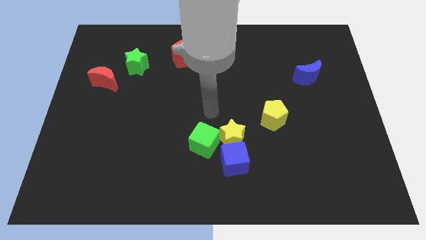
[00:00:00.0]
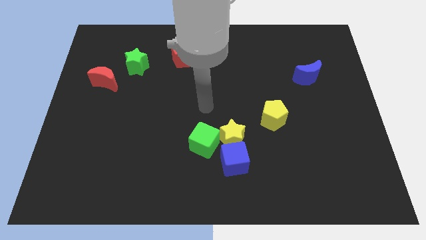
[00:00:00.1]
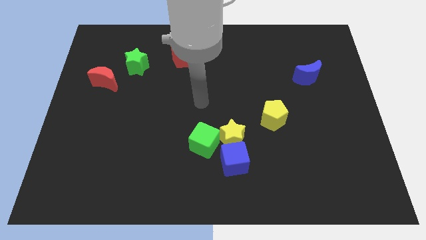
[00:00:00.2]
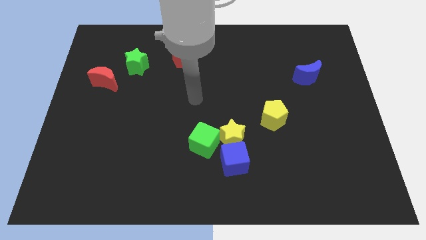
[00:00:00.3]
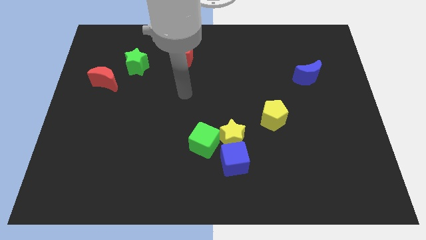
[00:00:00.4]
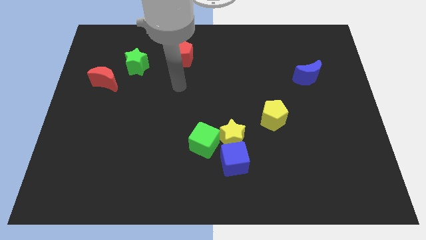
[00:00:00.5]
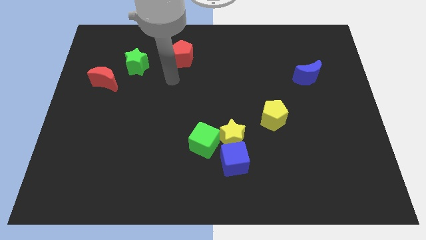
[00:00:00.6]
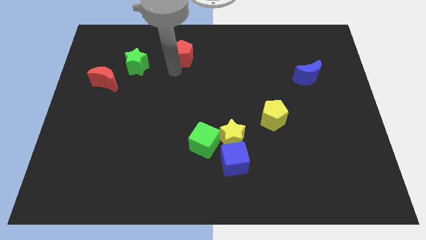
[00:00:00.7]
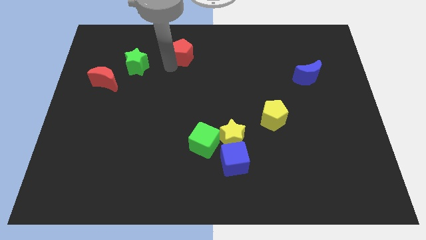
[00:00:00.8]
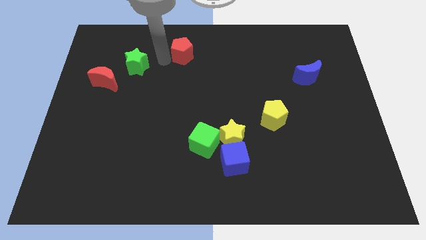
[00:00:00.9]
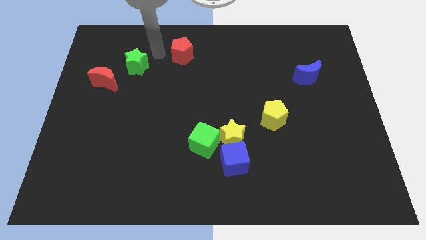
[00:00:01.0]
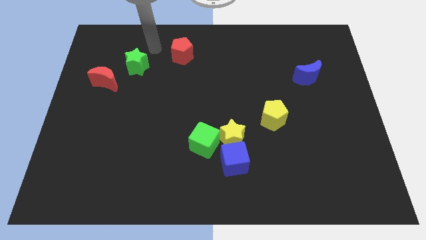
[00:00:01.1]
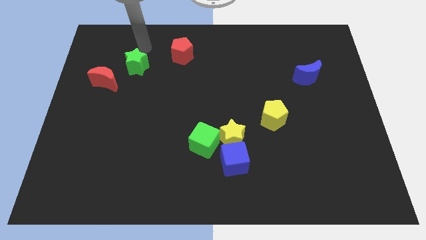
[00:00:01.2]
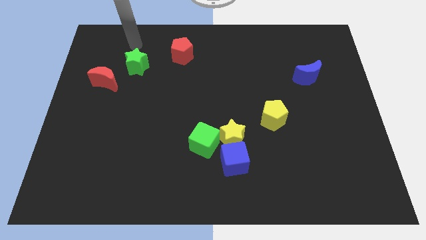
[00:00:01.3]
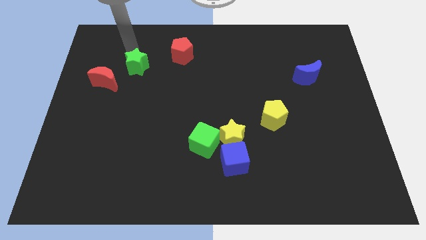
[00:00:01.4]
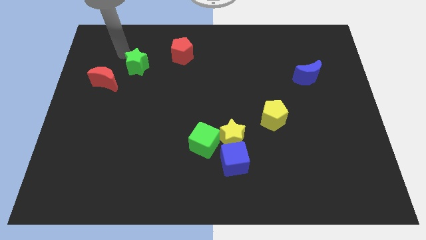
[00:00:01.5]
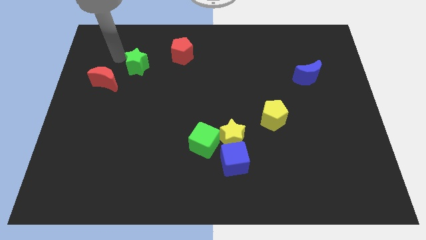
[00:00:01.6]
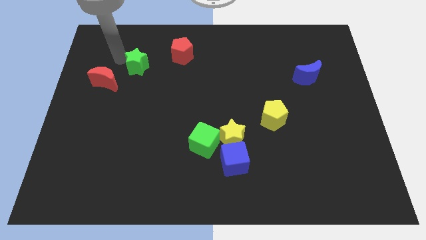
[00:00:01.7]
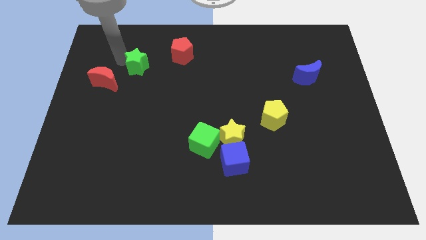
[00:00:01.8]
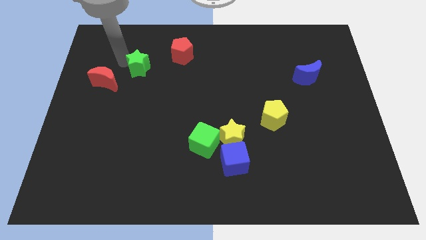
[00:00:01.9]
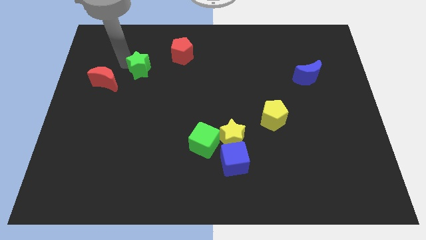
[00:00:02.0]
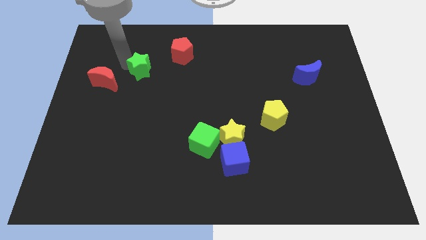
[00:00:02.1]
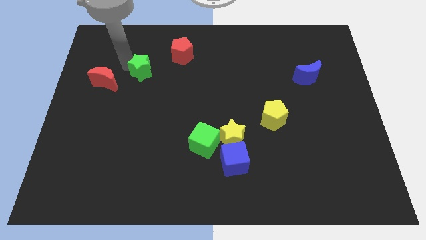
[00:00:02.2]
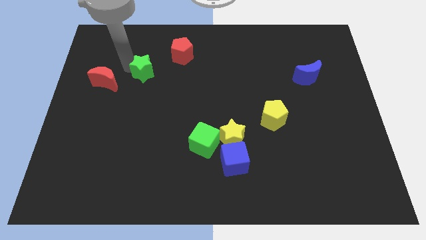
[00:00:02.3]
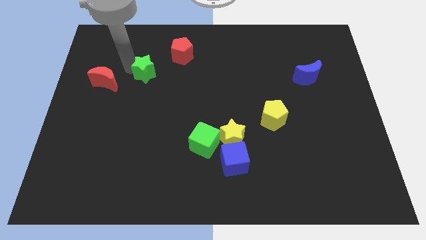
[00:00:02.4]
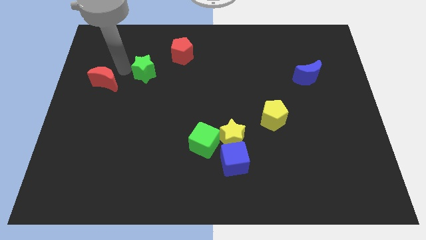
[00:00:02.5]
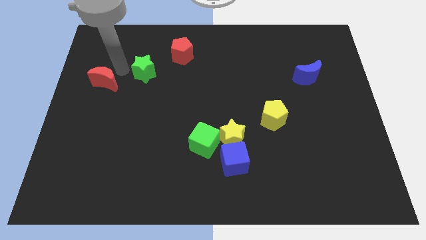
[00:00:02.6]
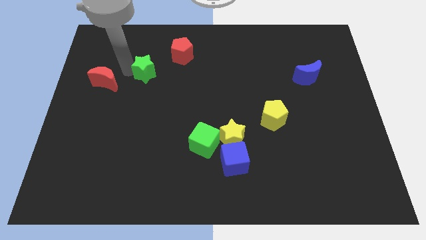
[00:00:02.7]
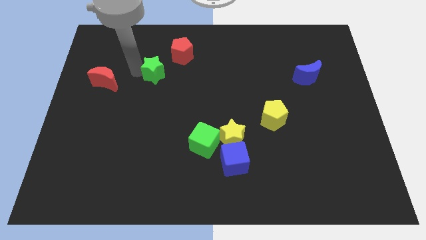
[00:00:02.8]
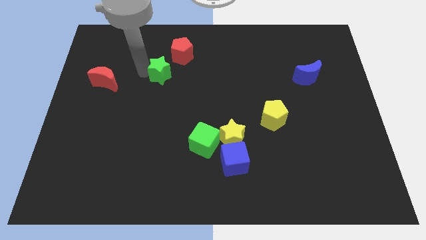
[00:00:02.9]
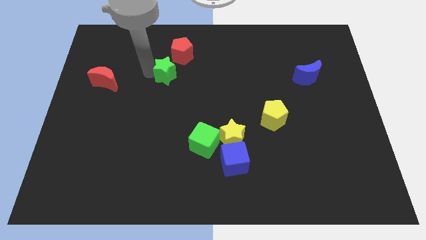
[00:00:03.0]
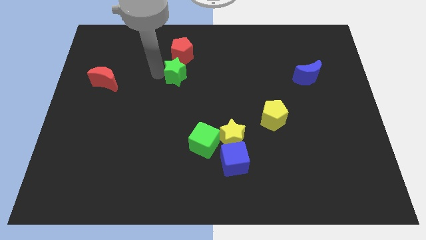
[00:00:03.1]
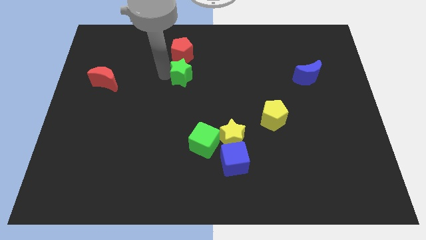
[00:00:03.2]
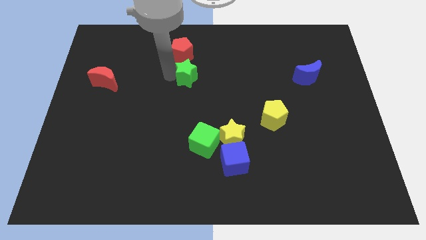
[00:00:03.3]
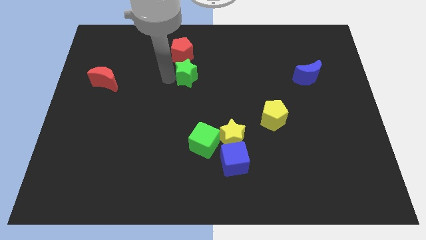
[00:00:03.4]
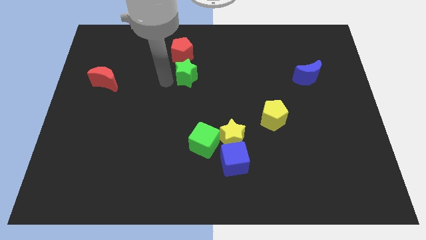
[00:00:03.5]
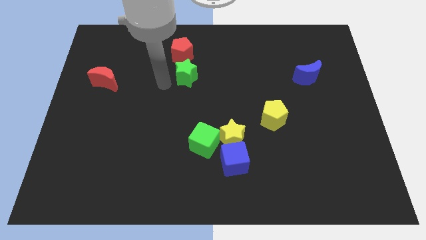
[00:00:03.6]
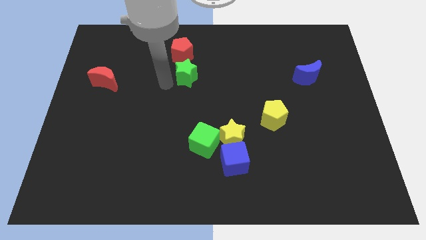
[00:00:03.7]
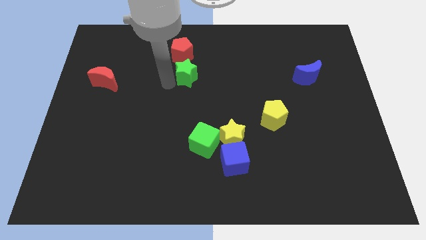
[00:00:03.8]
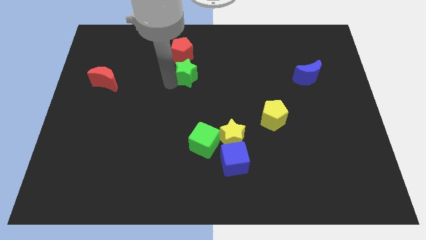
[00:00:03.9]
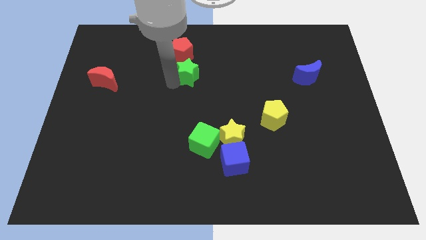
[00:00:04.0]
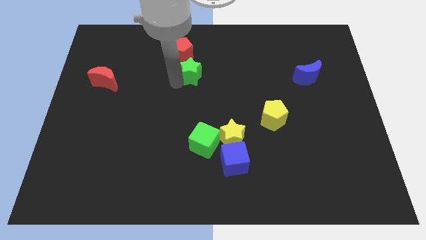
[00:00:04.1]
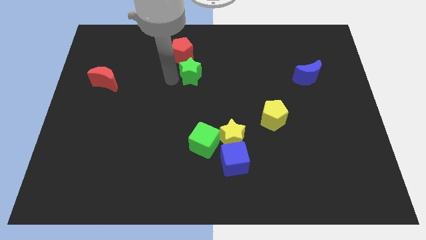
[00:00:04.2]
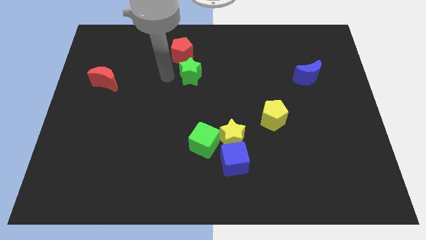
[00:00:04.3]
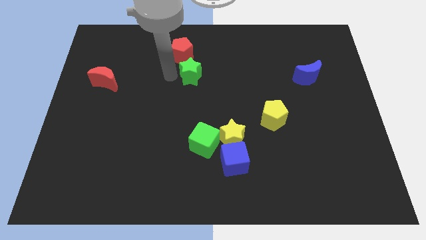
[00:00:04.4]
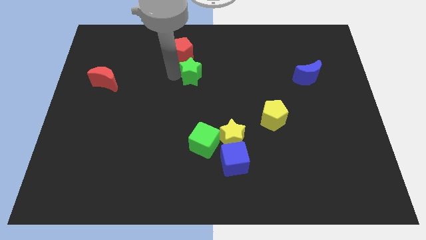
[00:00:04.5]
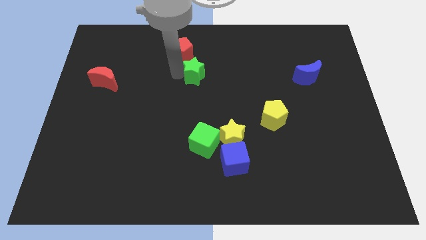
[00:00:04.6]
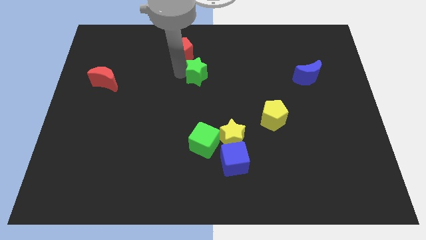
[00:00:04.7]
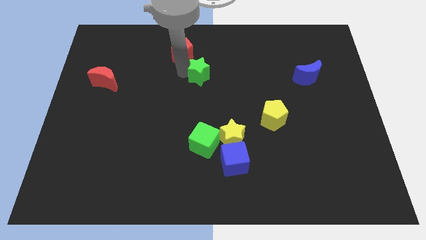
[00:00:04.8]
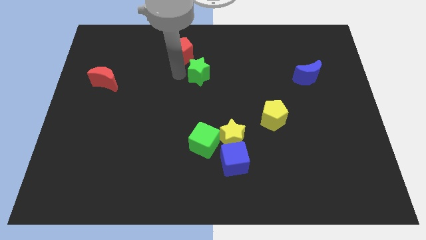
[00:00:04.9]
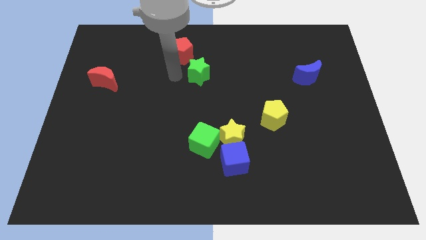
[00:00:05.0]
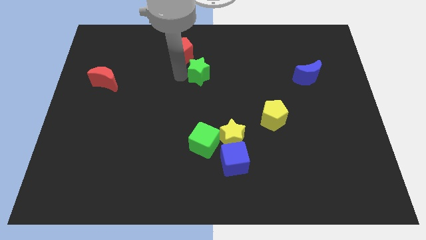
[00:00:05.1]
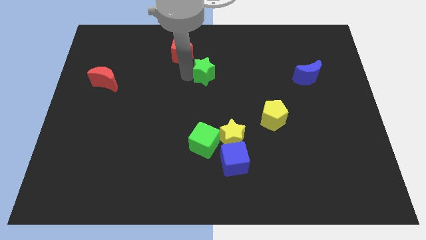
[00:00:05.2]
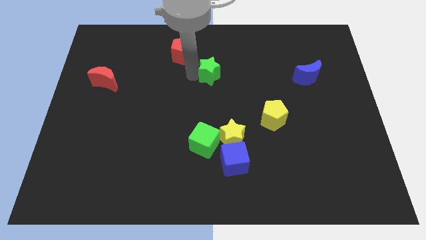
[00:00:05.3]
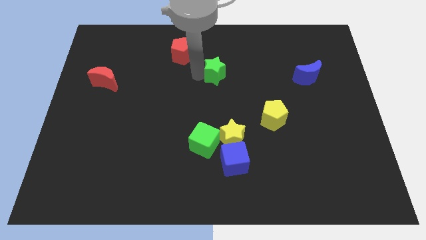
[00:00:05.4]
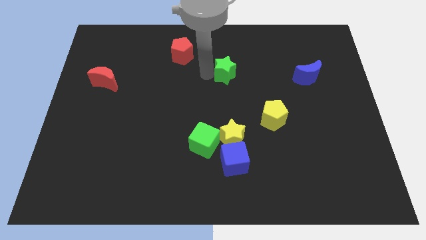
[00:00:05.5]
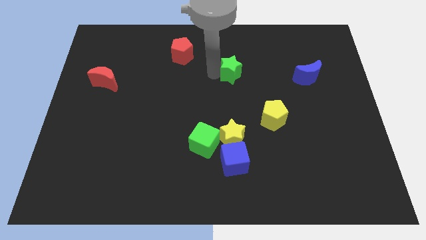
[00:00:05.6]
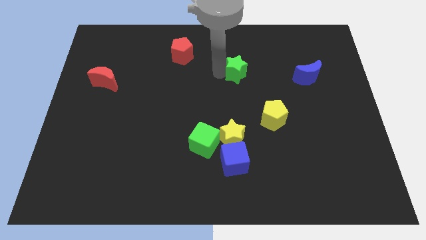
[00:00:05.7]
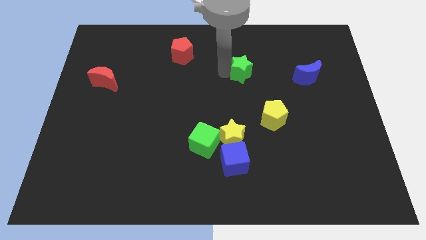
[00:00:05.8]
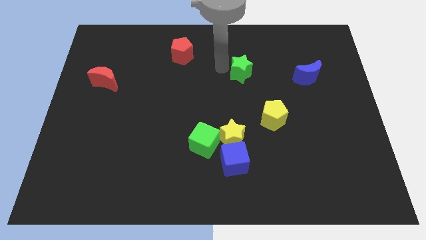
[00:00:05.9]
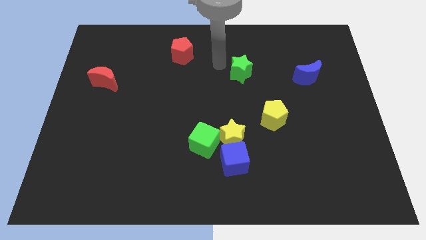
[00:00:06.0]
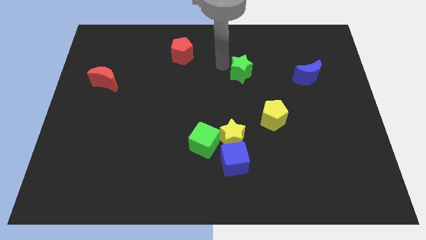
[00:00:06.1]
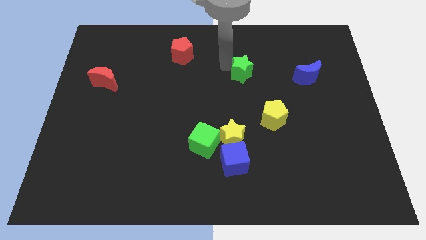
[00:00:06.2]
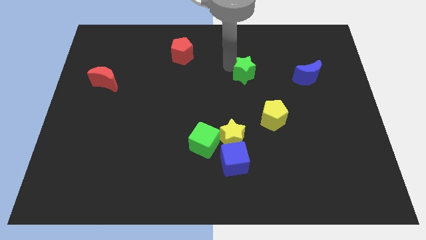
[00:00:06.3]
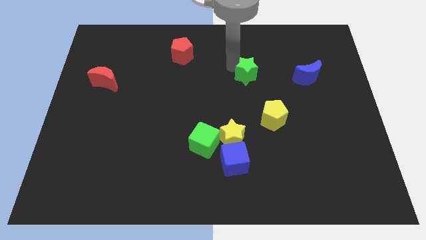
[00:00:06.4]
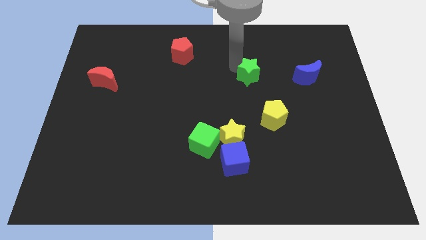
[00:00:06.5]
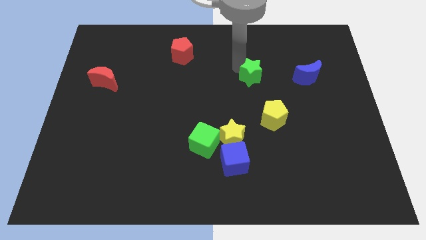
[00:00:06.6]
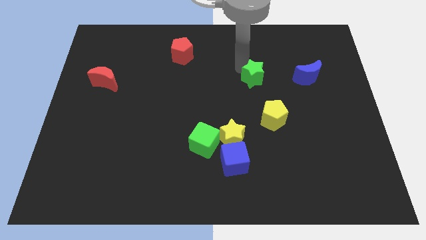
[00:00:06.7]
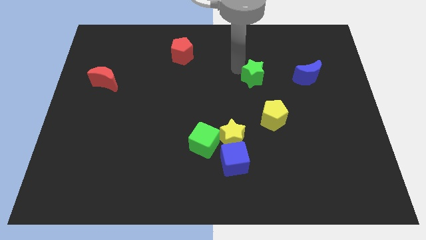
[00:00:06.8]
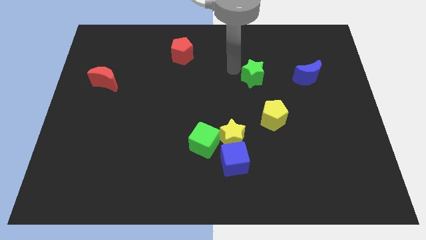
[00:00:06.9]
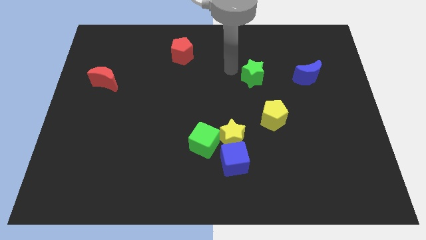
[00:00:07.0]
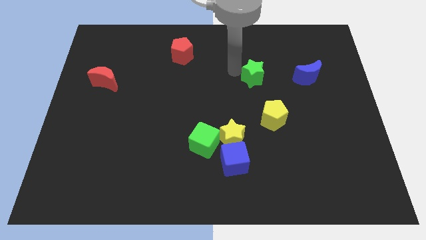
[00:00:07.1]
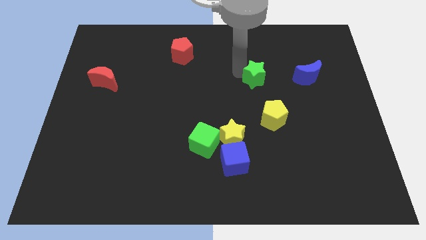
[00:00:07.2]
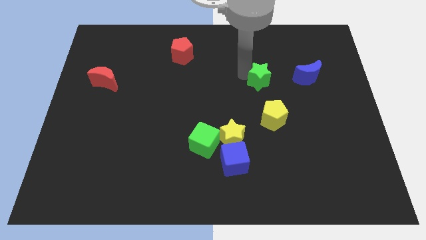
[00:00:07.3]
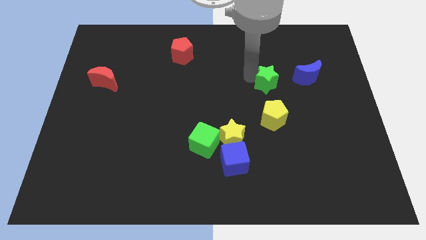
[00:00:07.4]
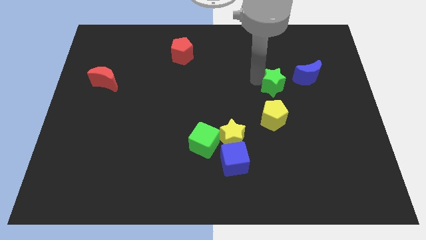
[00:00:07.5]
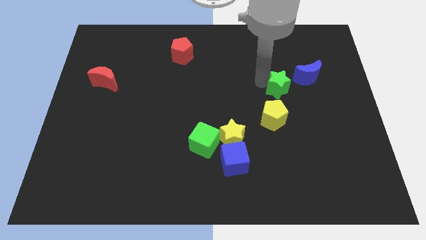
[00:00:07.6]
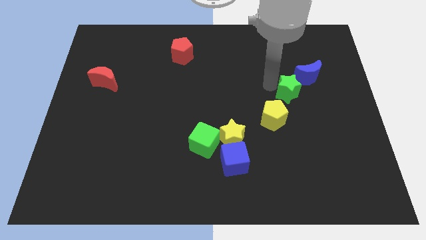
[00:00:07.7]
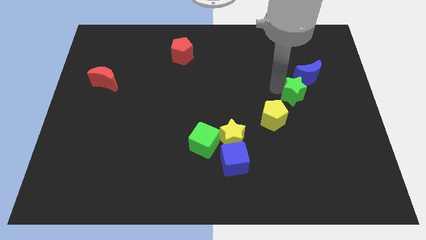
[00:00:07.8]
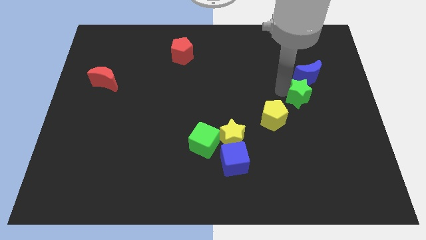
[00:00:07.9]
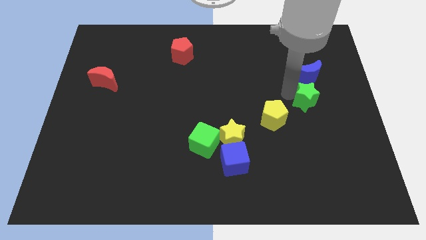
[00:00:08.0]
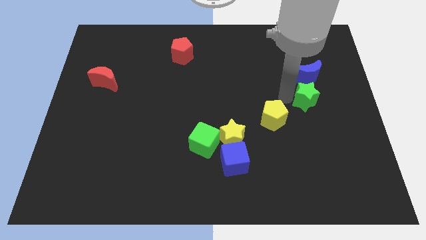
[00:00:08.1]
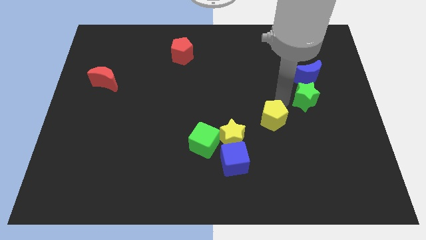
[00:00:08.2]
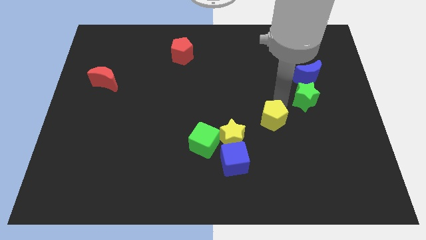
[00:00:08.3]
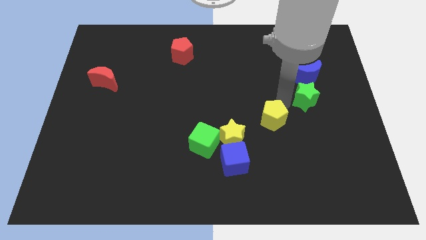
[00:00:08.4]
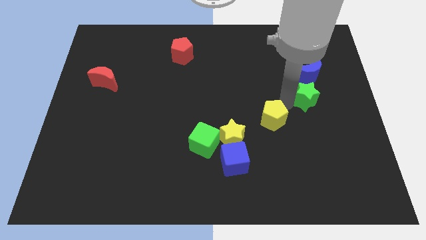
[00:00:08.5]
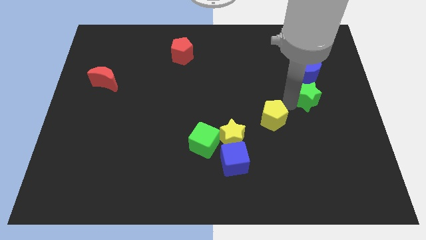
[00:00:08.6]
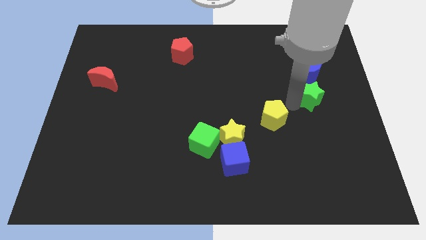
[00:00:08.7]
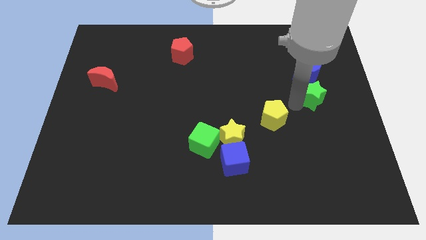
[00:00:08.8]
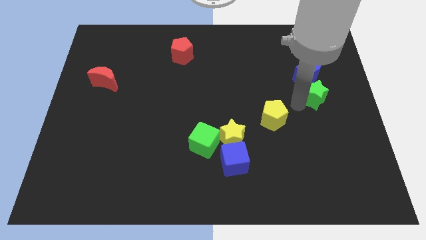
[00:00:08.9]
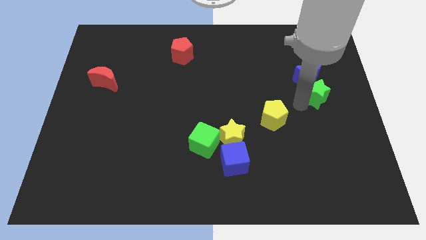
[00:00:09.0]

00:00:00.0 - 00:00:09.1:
push the green star to the center right
